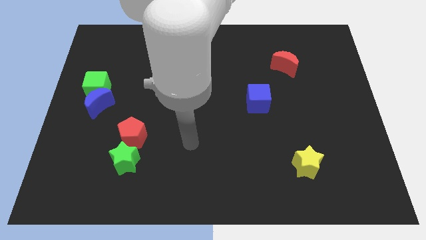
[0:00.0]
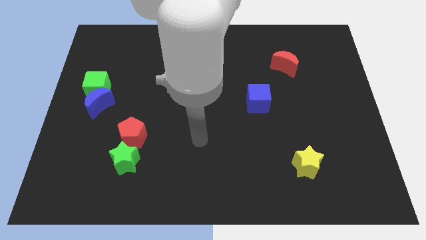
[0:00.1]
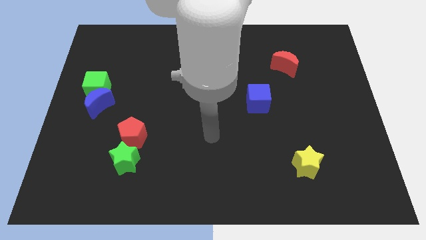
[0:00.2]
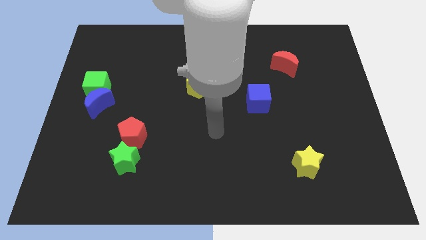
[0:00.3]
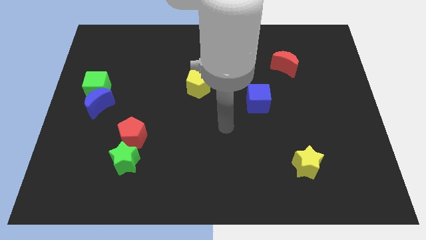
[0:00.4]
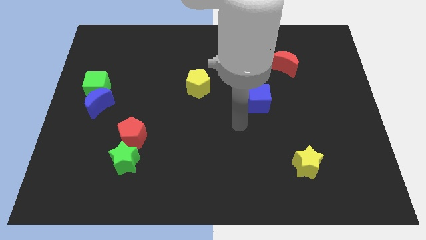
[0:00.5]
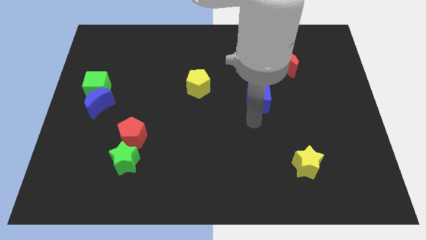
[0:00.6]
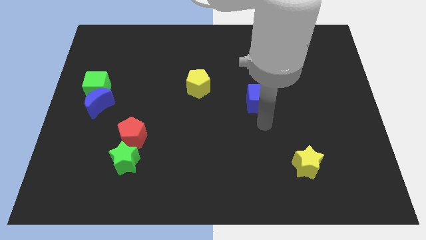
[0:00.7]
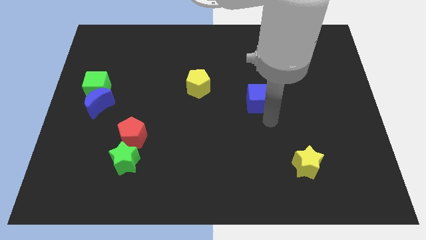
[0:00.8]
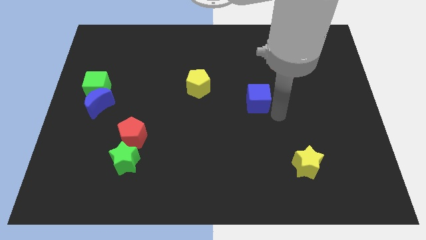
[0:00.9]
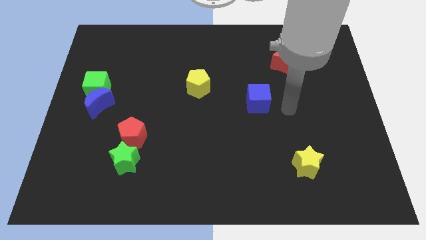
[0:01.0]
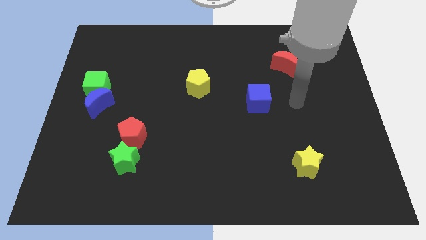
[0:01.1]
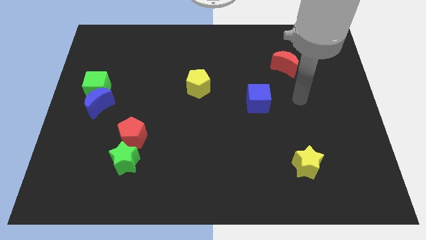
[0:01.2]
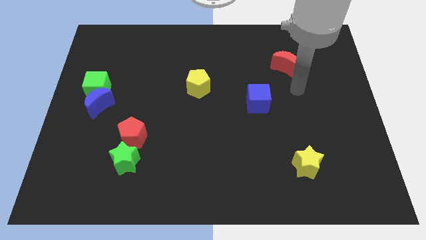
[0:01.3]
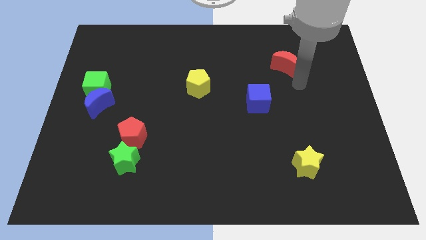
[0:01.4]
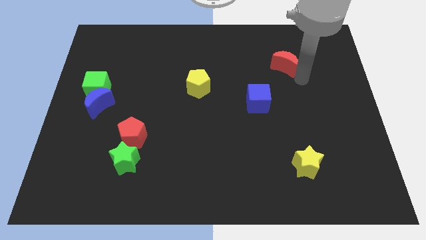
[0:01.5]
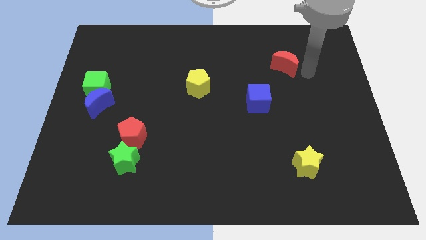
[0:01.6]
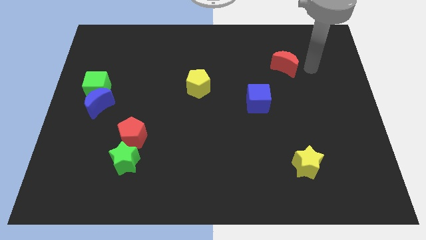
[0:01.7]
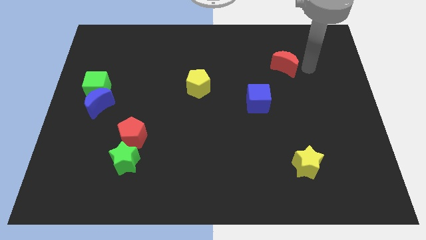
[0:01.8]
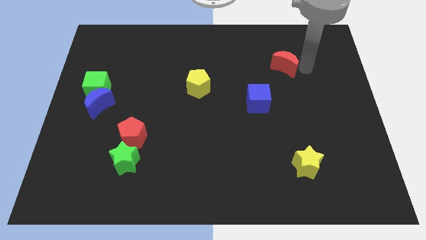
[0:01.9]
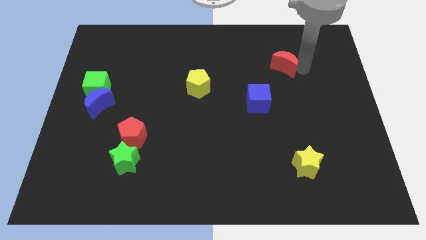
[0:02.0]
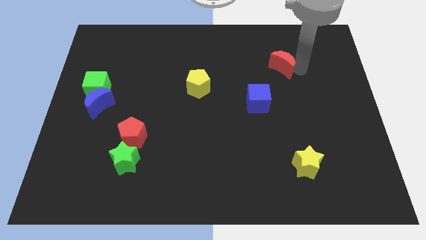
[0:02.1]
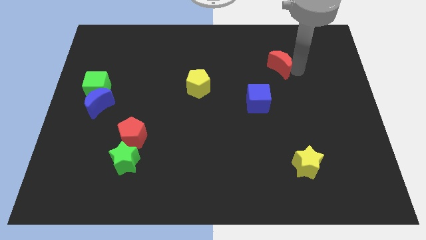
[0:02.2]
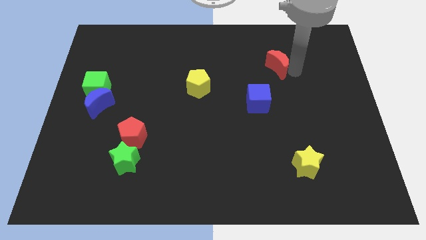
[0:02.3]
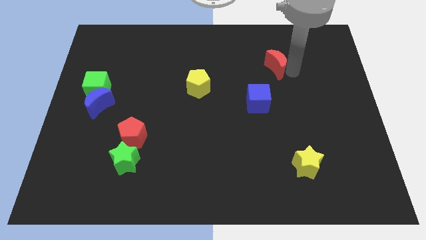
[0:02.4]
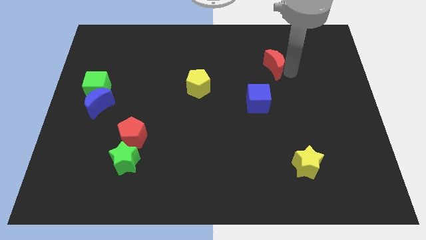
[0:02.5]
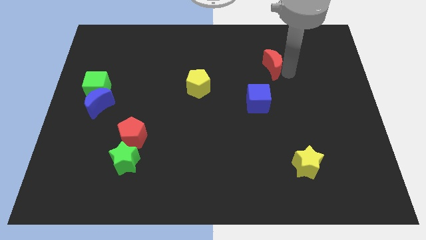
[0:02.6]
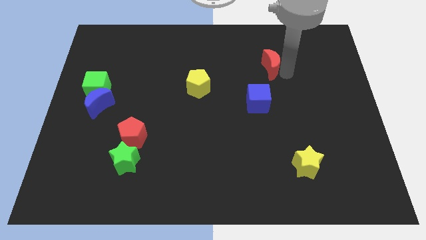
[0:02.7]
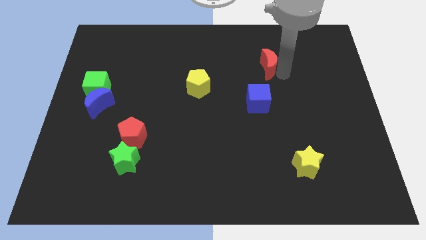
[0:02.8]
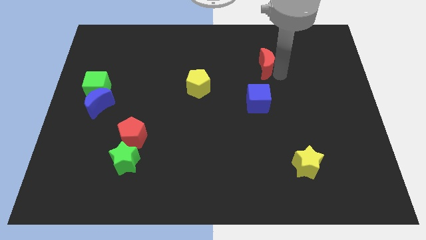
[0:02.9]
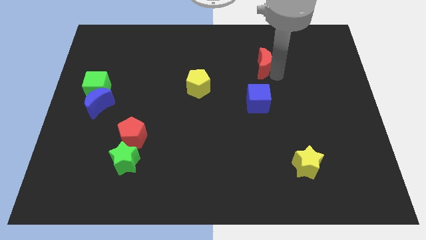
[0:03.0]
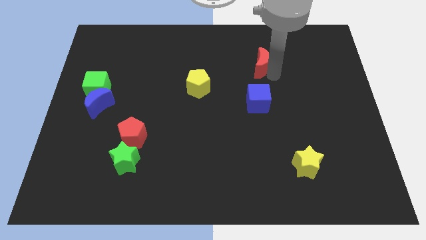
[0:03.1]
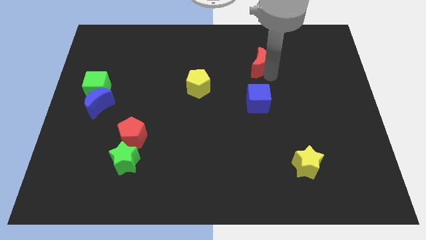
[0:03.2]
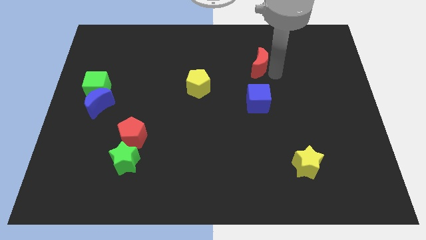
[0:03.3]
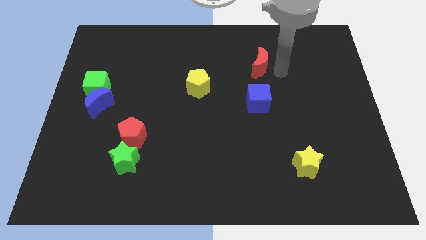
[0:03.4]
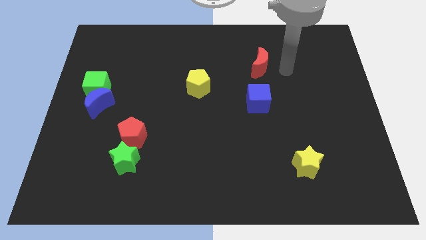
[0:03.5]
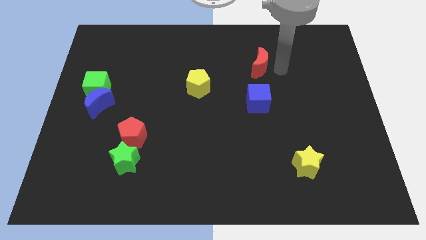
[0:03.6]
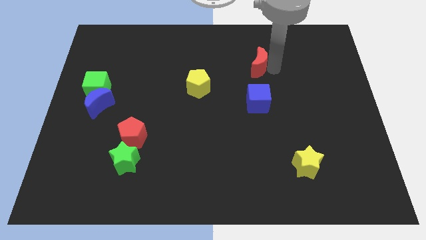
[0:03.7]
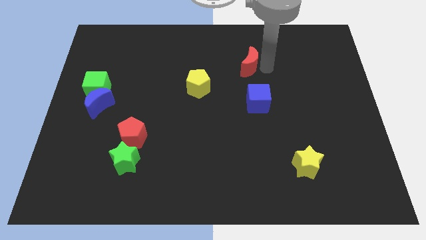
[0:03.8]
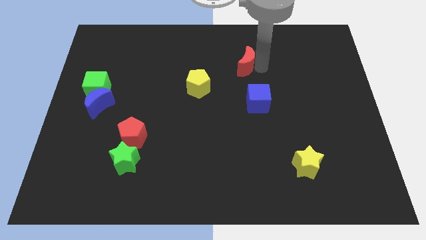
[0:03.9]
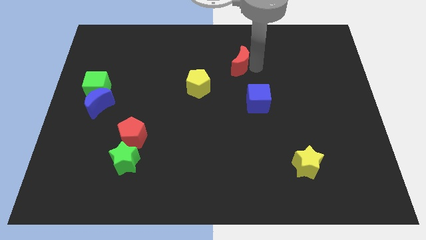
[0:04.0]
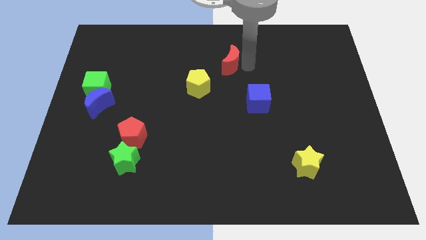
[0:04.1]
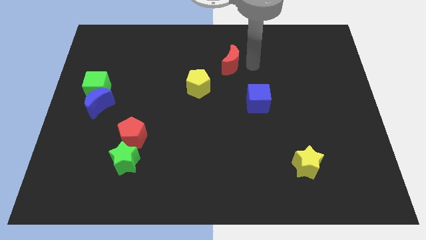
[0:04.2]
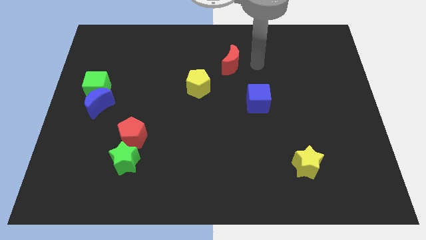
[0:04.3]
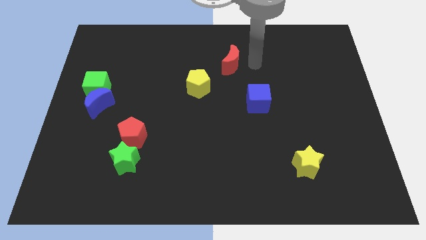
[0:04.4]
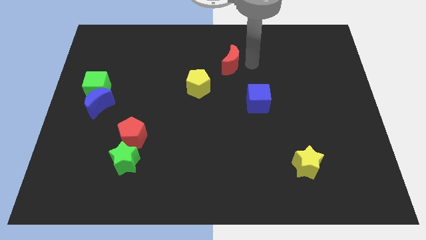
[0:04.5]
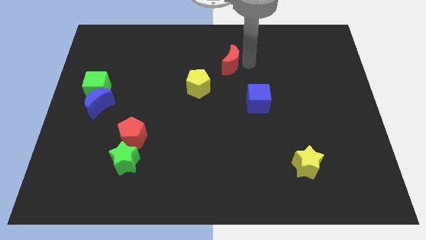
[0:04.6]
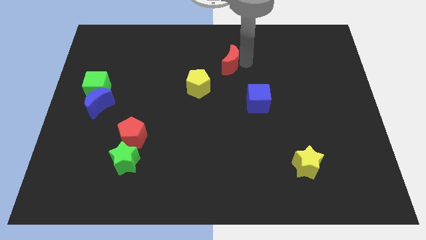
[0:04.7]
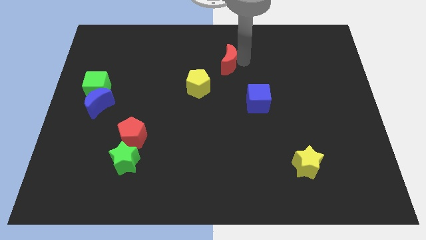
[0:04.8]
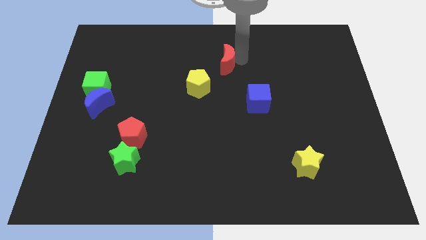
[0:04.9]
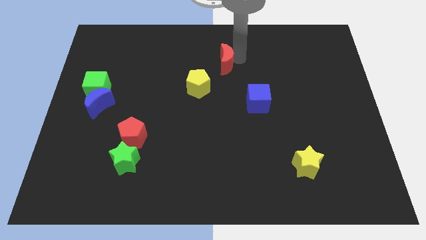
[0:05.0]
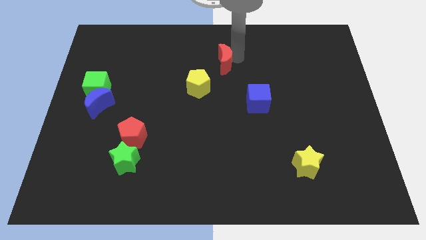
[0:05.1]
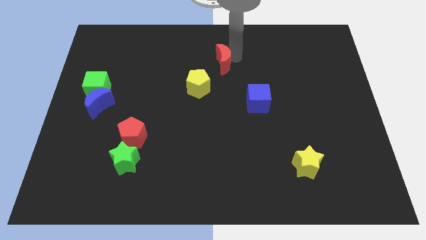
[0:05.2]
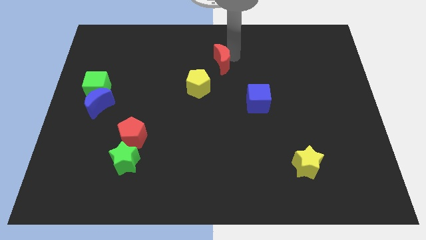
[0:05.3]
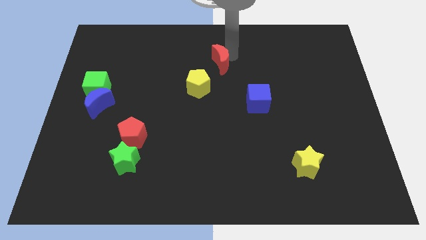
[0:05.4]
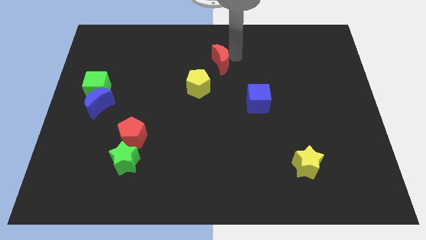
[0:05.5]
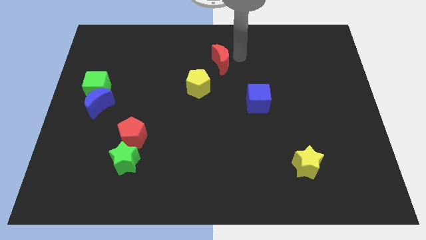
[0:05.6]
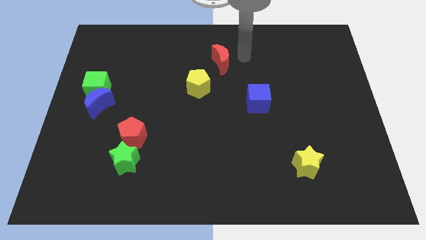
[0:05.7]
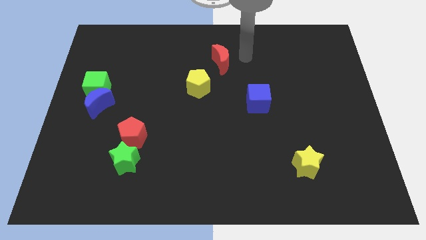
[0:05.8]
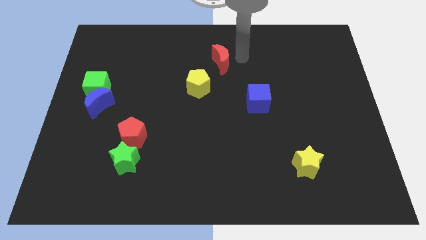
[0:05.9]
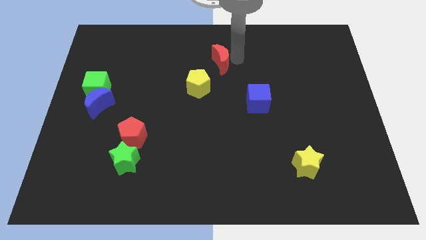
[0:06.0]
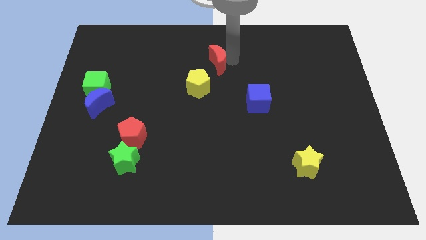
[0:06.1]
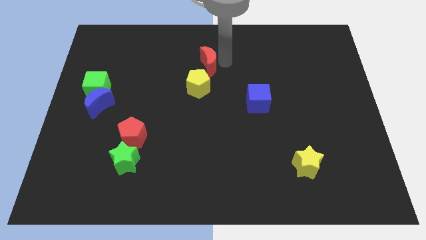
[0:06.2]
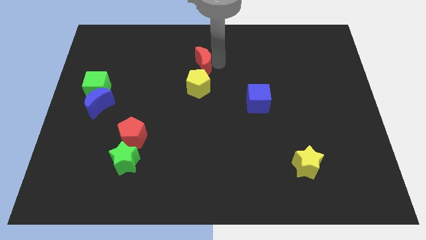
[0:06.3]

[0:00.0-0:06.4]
slide the red moon to the left

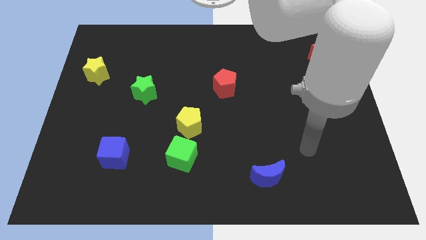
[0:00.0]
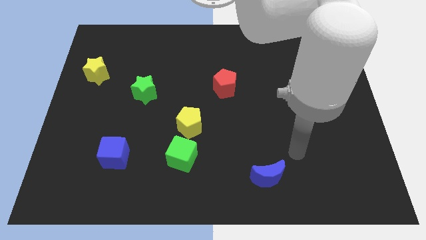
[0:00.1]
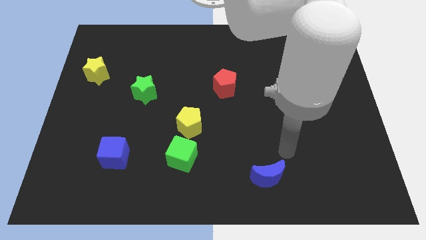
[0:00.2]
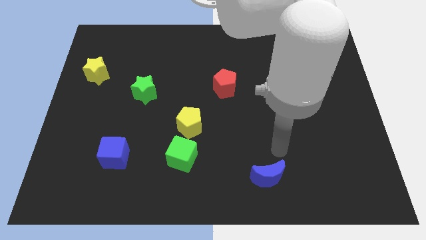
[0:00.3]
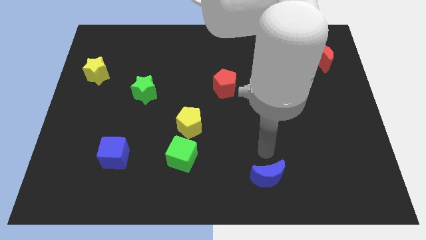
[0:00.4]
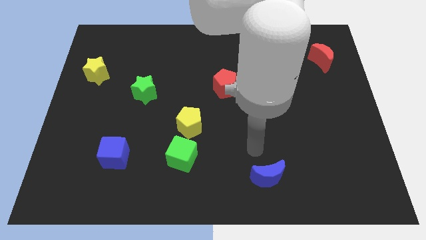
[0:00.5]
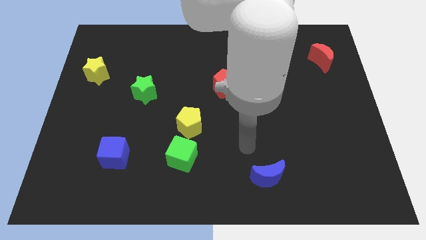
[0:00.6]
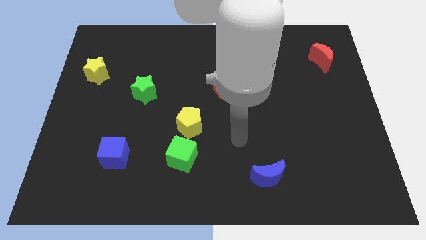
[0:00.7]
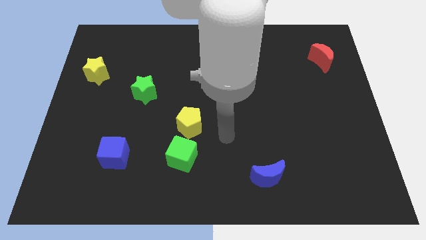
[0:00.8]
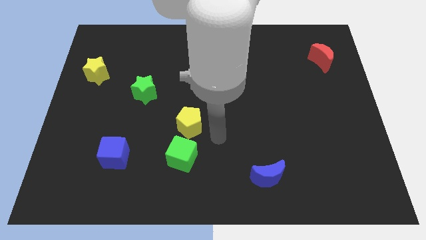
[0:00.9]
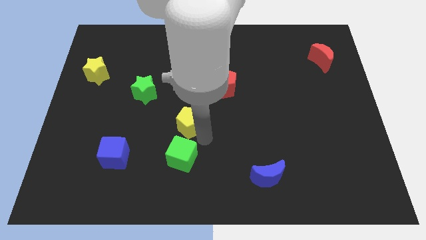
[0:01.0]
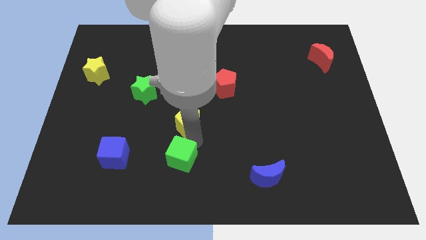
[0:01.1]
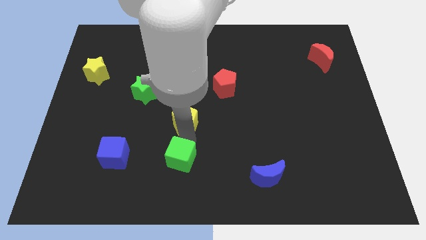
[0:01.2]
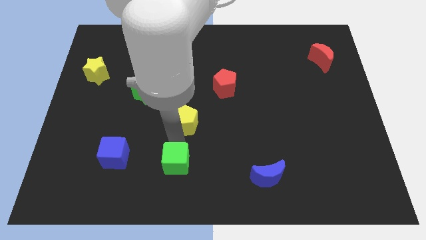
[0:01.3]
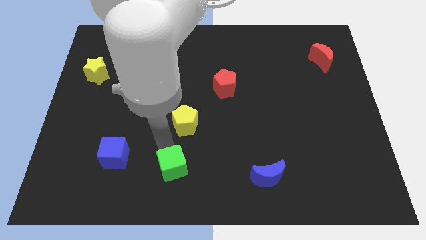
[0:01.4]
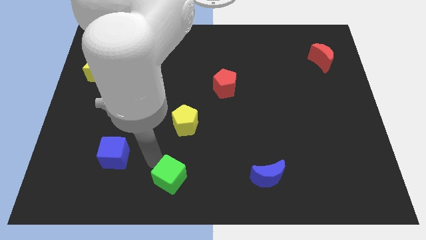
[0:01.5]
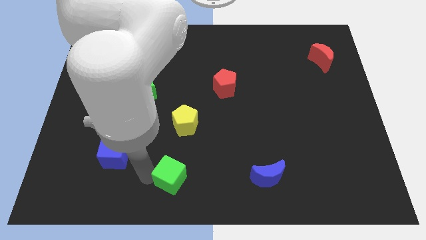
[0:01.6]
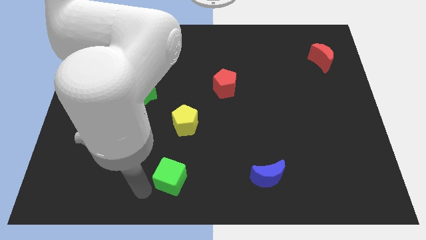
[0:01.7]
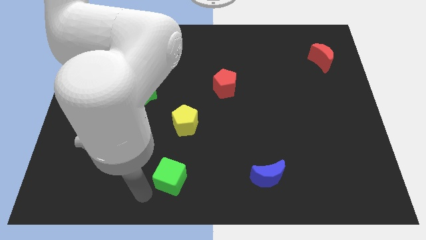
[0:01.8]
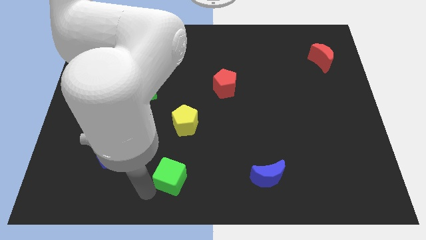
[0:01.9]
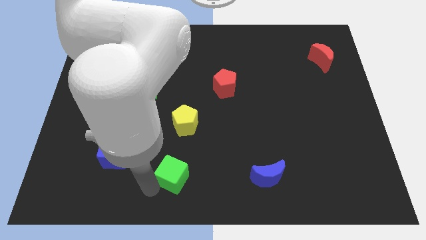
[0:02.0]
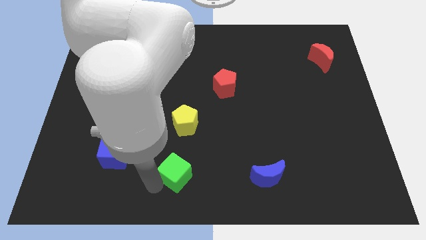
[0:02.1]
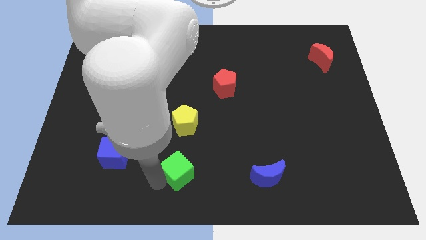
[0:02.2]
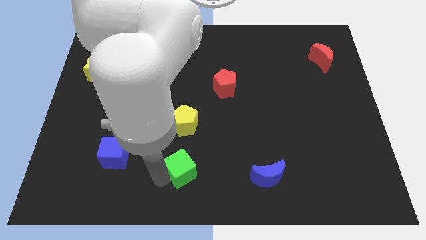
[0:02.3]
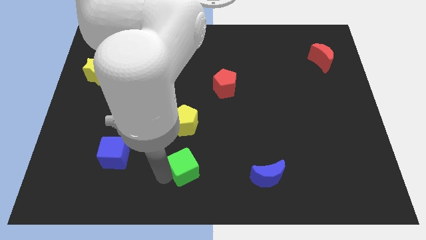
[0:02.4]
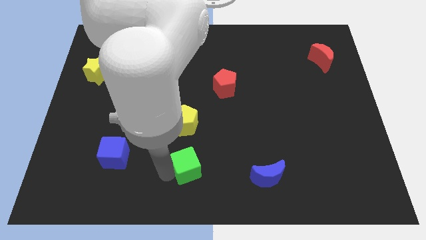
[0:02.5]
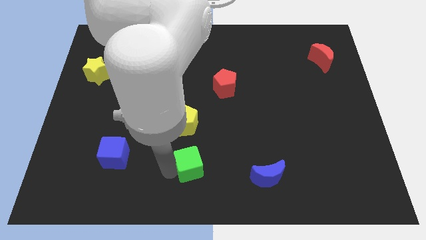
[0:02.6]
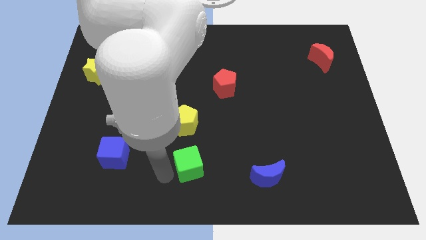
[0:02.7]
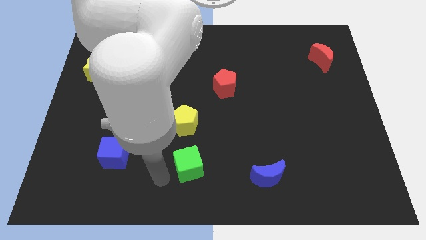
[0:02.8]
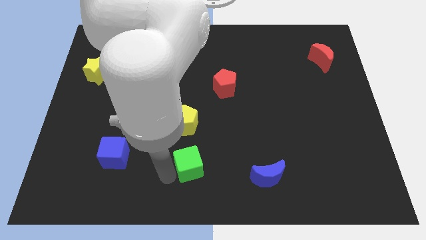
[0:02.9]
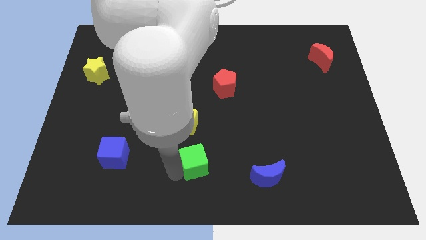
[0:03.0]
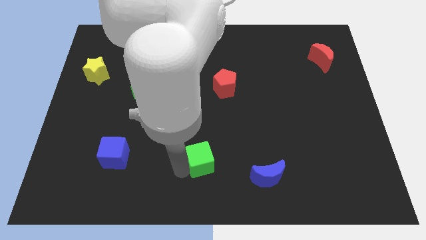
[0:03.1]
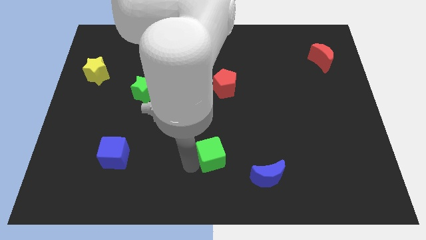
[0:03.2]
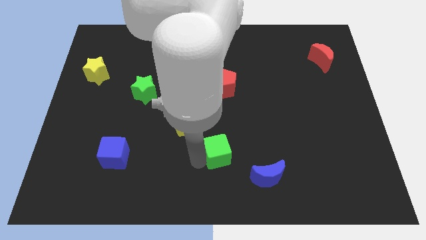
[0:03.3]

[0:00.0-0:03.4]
slightly slide the green cube to the right
